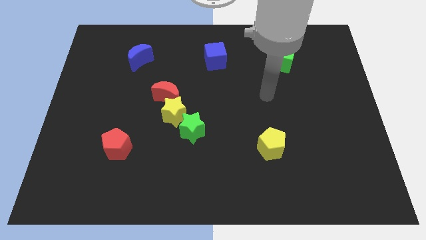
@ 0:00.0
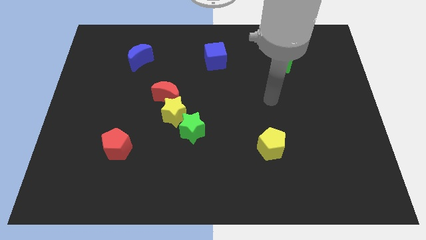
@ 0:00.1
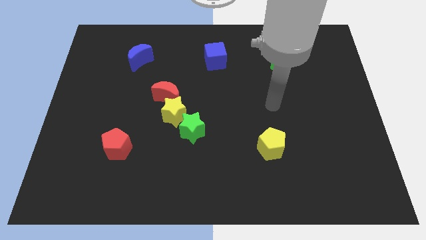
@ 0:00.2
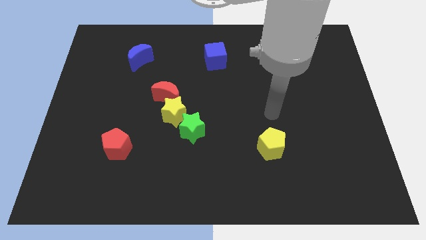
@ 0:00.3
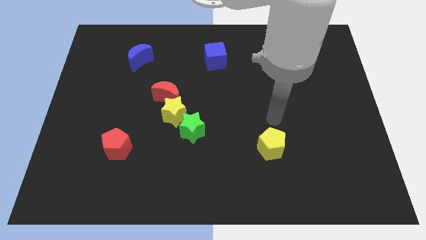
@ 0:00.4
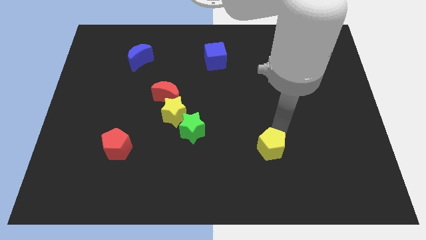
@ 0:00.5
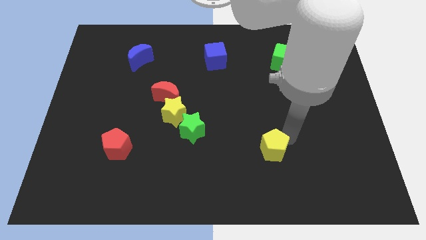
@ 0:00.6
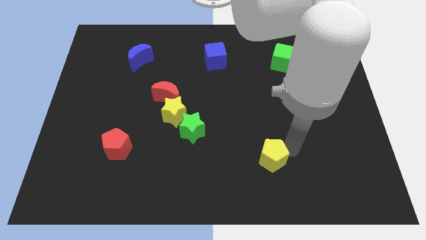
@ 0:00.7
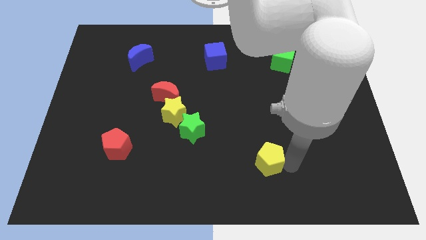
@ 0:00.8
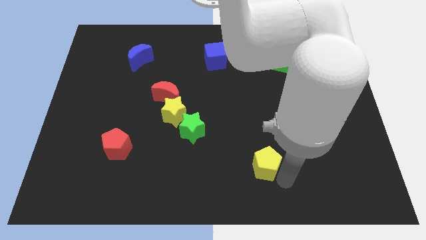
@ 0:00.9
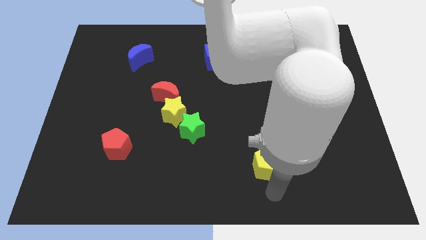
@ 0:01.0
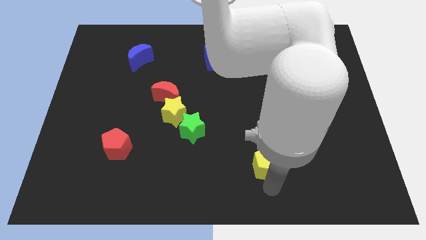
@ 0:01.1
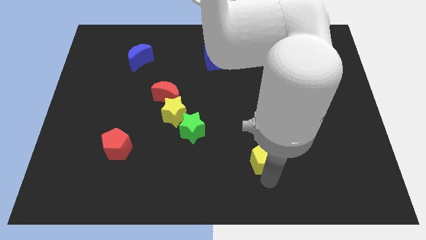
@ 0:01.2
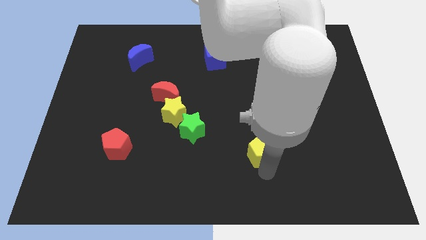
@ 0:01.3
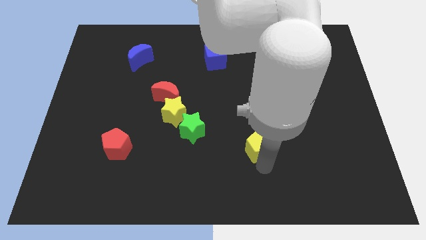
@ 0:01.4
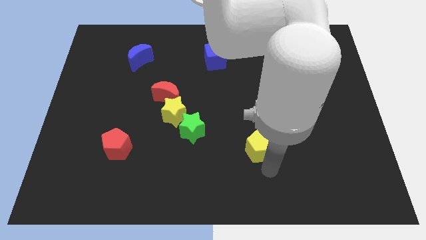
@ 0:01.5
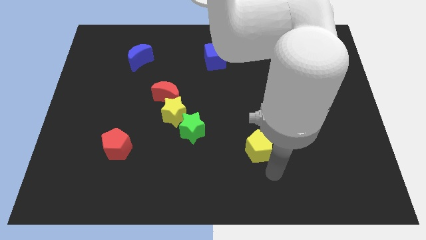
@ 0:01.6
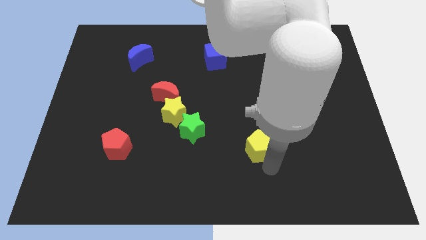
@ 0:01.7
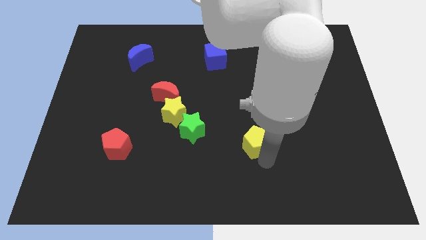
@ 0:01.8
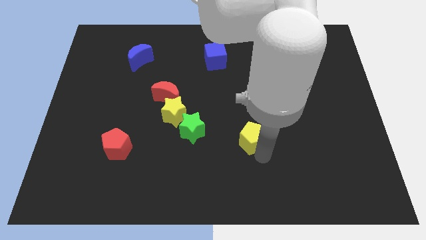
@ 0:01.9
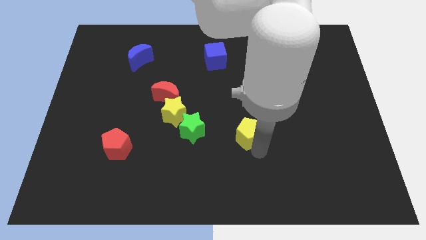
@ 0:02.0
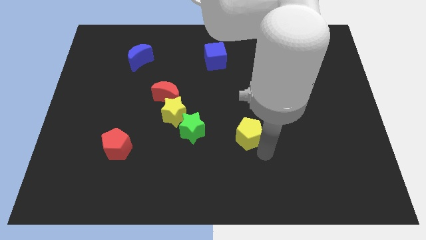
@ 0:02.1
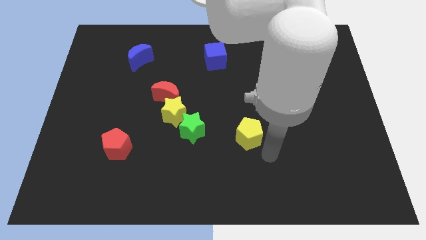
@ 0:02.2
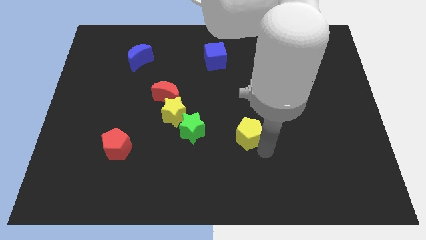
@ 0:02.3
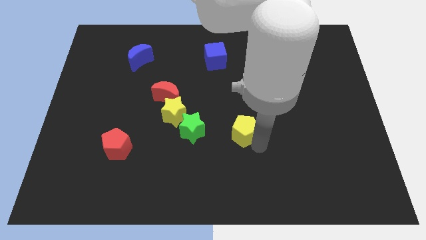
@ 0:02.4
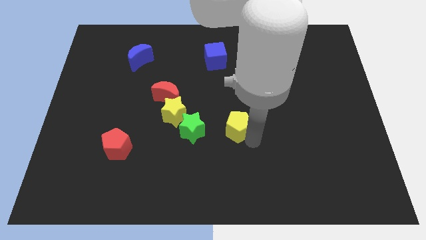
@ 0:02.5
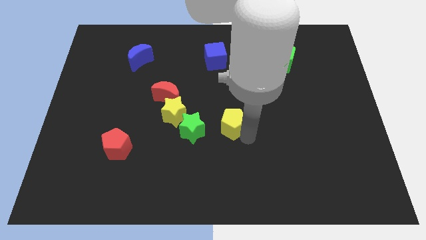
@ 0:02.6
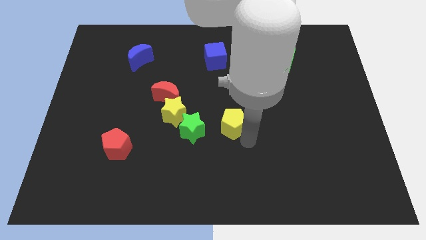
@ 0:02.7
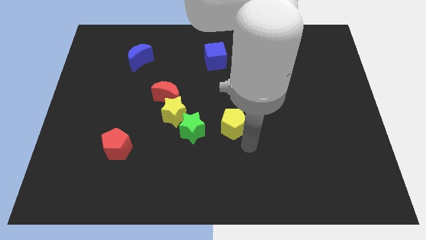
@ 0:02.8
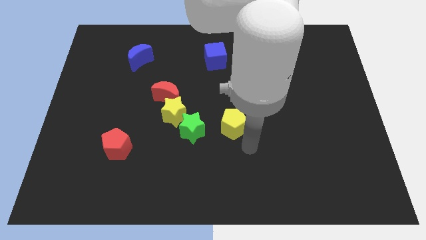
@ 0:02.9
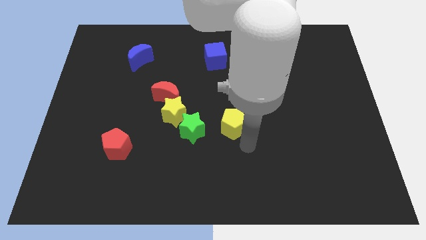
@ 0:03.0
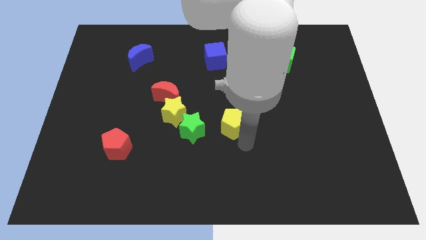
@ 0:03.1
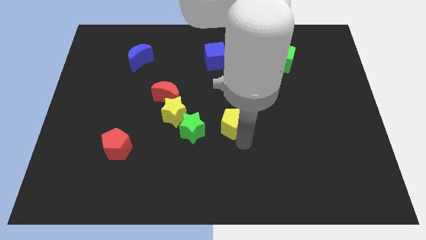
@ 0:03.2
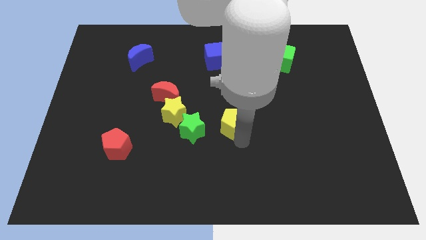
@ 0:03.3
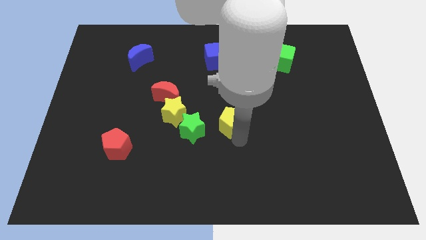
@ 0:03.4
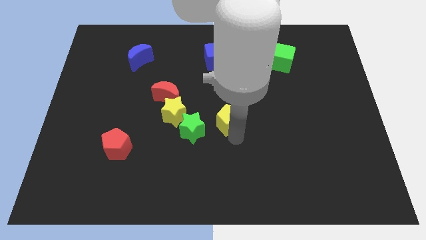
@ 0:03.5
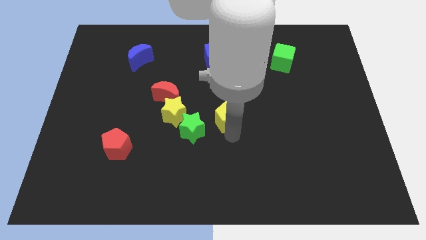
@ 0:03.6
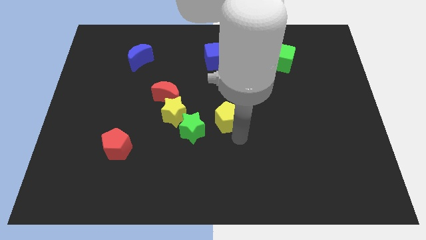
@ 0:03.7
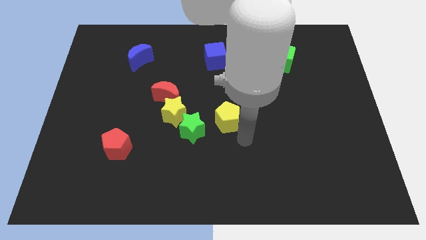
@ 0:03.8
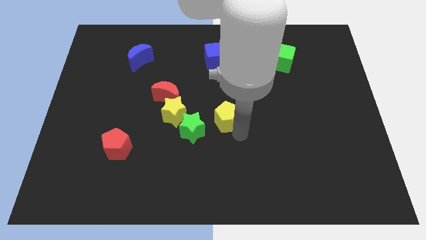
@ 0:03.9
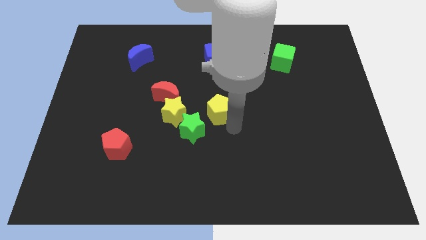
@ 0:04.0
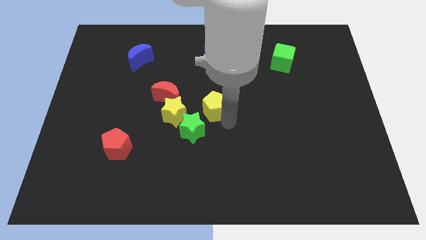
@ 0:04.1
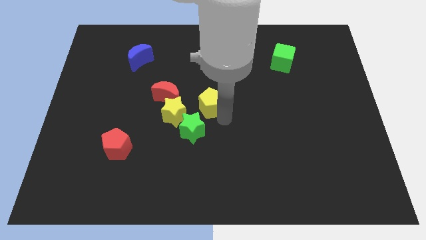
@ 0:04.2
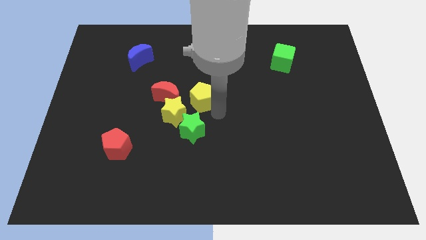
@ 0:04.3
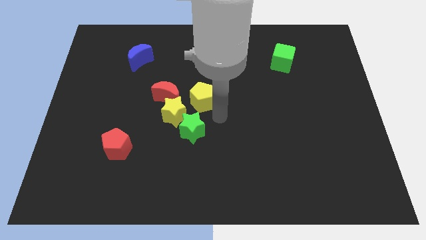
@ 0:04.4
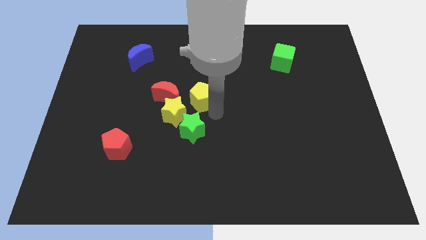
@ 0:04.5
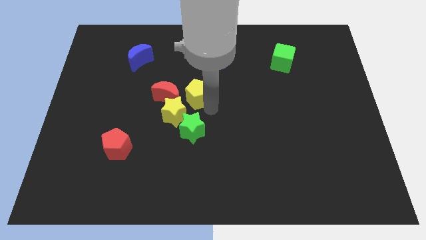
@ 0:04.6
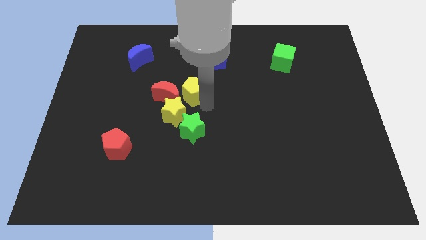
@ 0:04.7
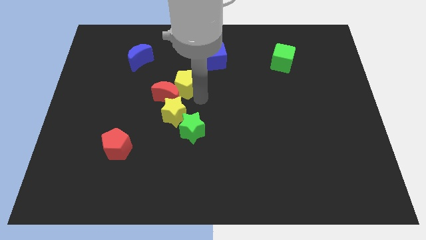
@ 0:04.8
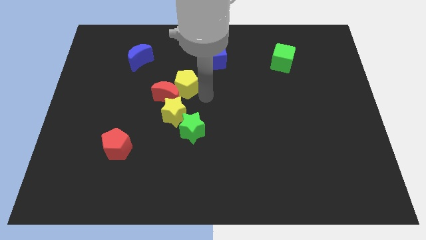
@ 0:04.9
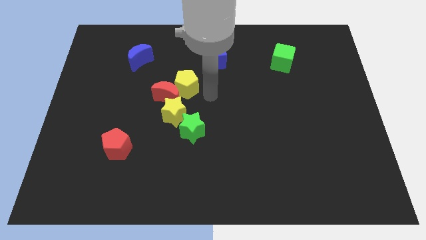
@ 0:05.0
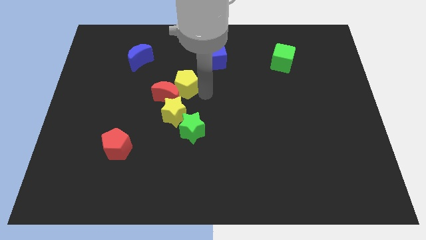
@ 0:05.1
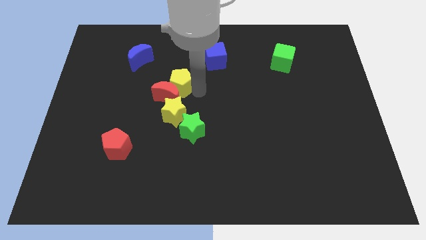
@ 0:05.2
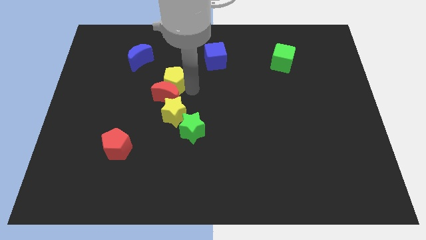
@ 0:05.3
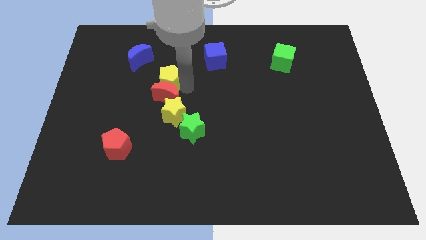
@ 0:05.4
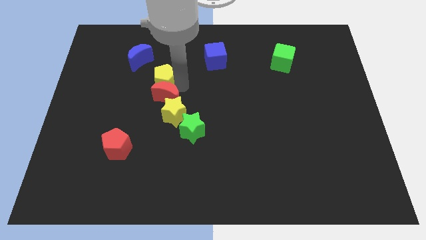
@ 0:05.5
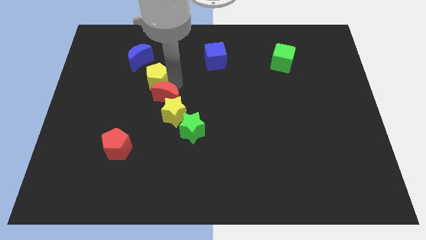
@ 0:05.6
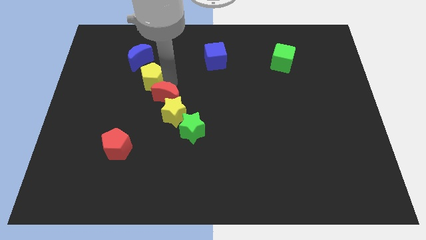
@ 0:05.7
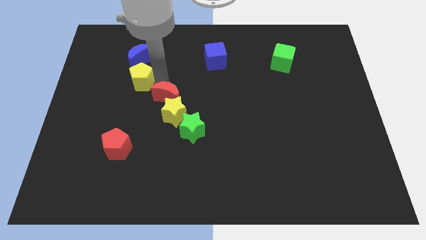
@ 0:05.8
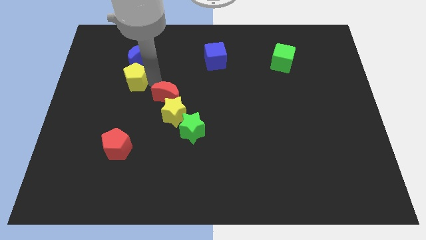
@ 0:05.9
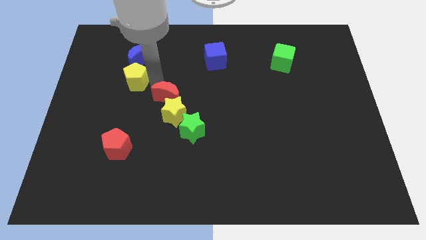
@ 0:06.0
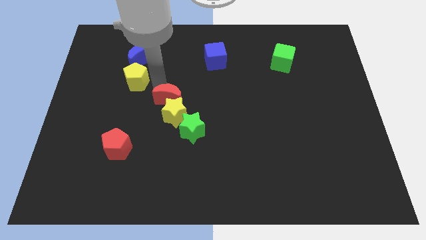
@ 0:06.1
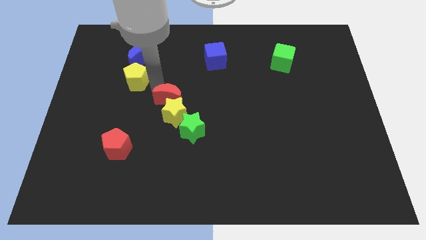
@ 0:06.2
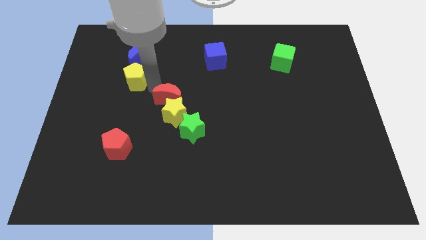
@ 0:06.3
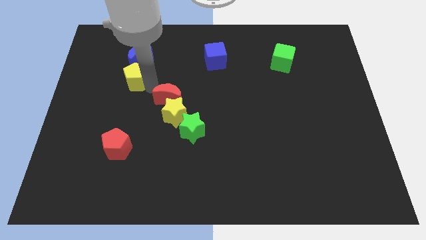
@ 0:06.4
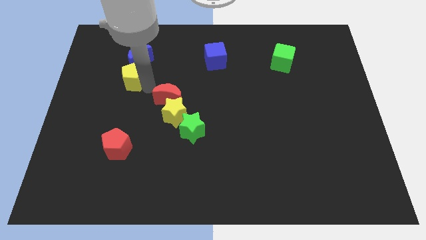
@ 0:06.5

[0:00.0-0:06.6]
move the yellow pentagon to the bottom left of the blue moon
